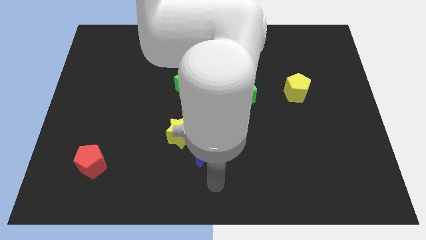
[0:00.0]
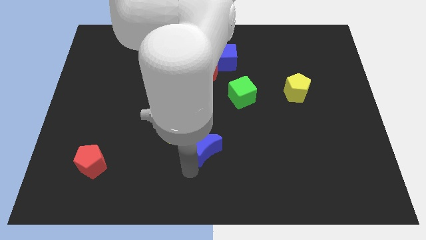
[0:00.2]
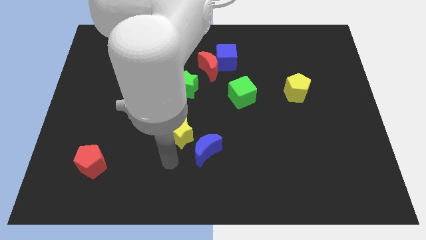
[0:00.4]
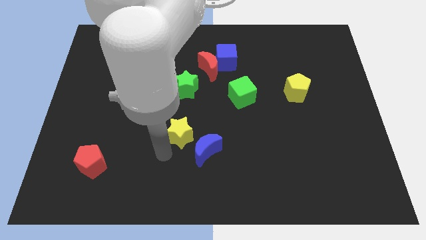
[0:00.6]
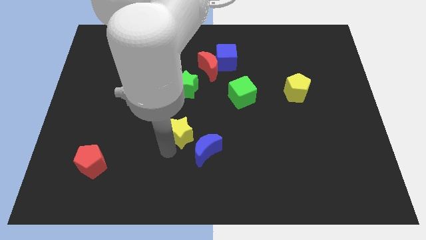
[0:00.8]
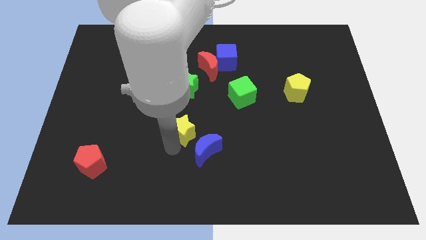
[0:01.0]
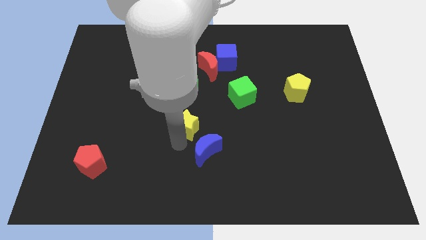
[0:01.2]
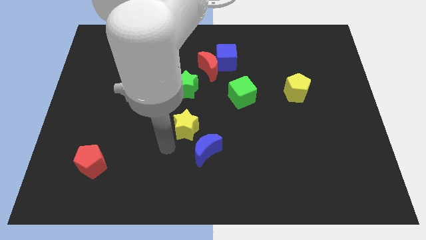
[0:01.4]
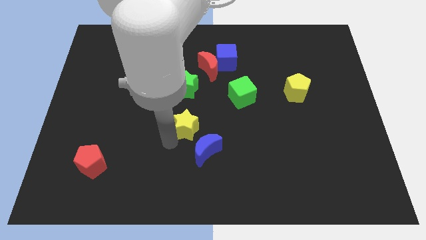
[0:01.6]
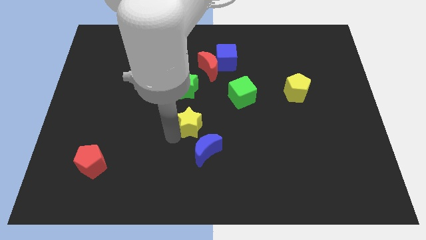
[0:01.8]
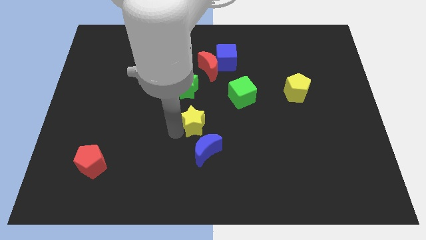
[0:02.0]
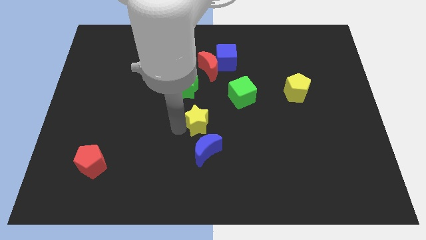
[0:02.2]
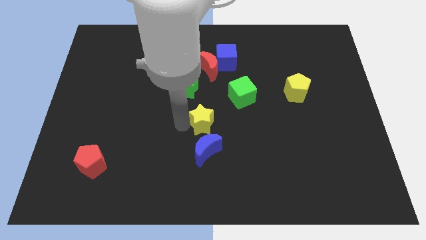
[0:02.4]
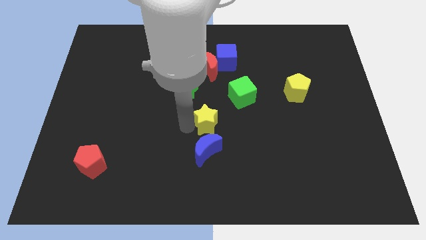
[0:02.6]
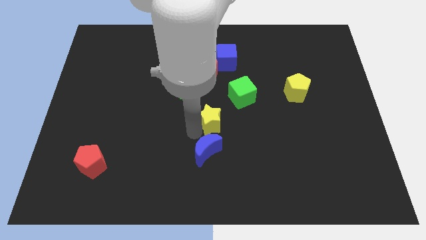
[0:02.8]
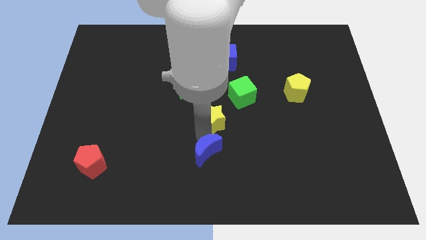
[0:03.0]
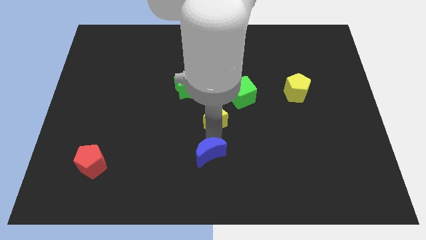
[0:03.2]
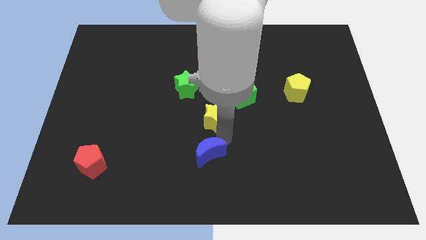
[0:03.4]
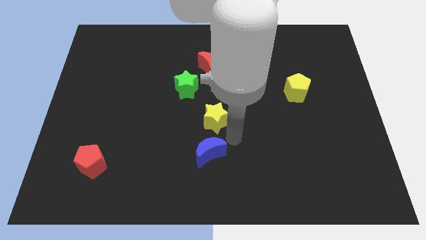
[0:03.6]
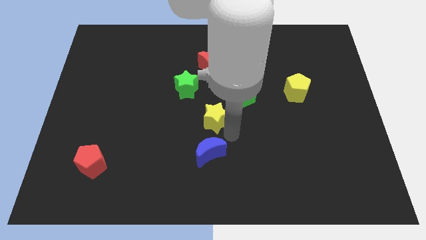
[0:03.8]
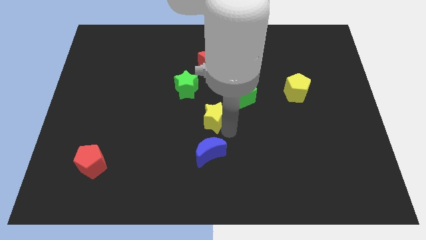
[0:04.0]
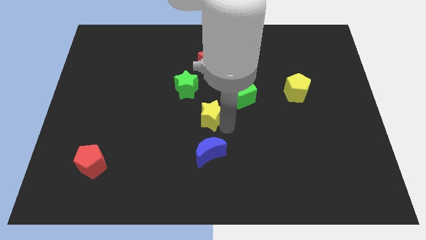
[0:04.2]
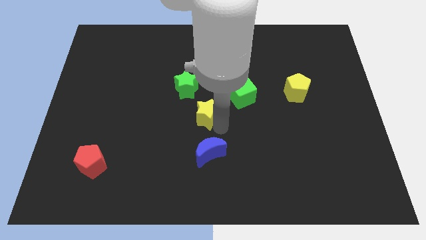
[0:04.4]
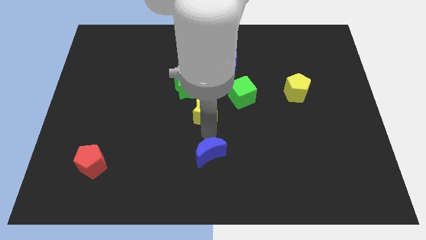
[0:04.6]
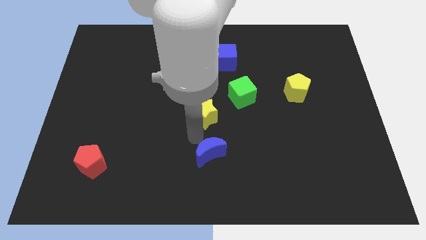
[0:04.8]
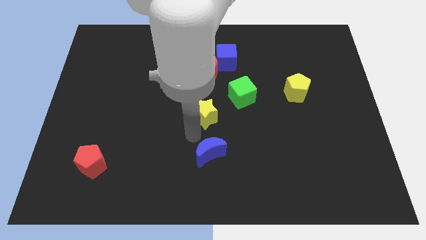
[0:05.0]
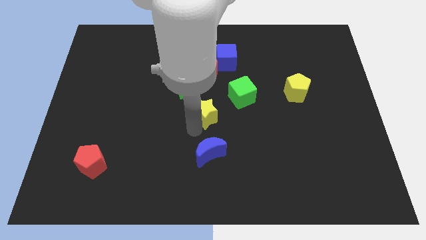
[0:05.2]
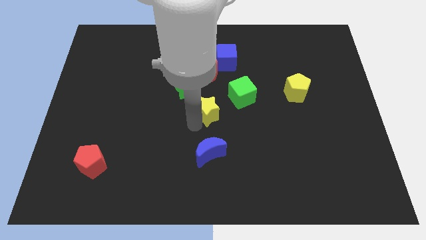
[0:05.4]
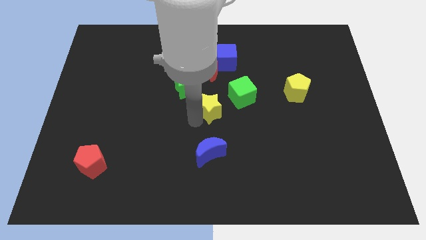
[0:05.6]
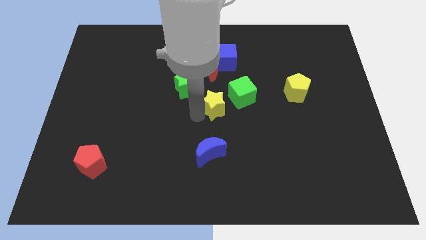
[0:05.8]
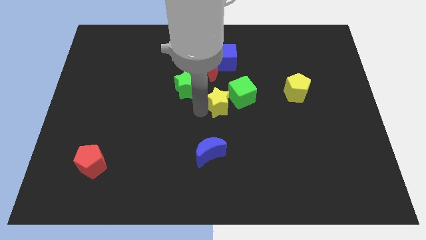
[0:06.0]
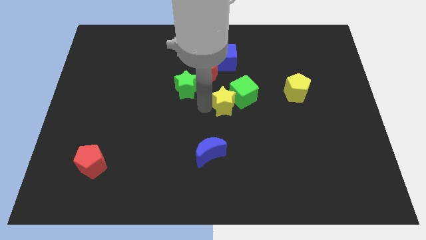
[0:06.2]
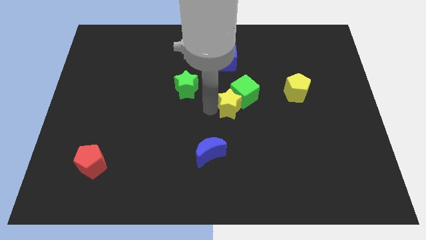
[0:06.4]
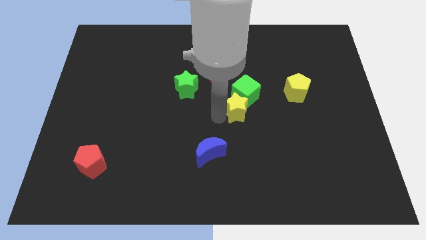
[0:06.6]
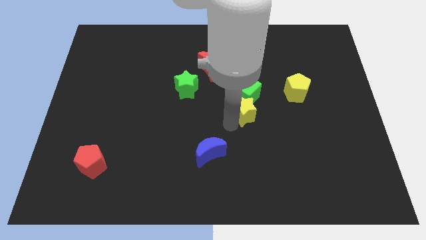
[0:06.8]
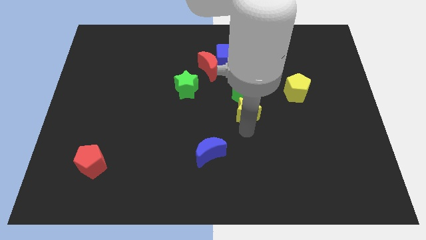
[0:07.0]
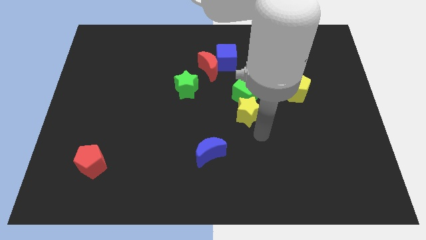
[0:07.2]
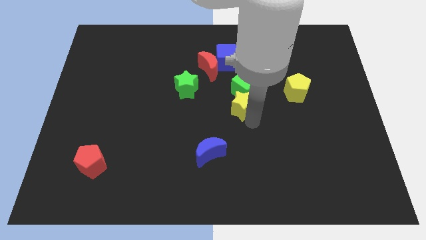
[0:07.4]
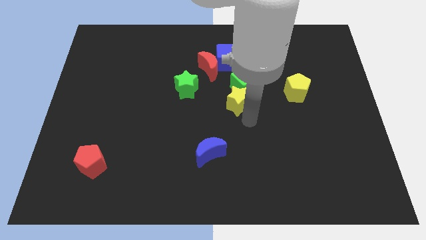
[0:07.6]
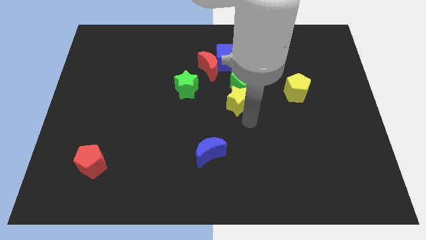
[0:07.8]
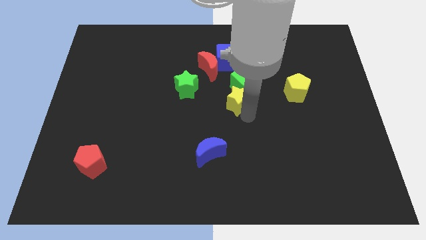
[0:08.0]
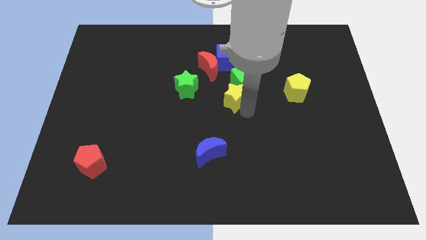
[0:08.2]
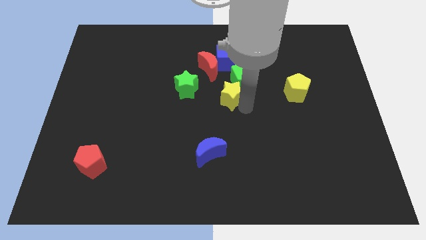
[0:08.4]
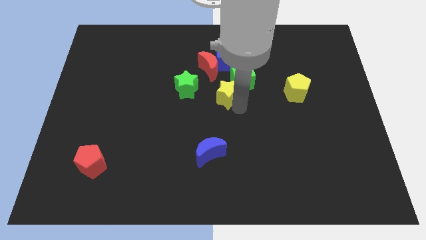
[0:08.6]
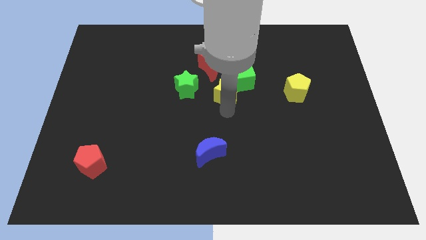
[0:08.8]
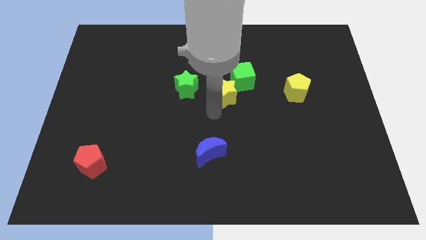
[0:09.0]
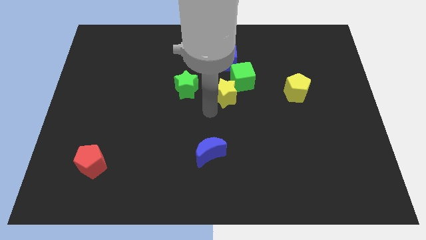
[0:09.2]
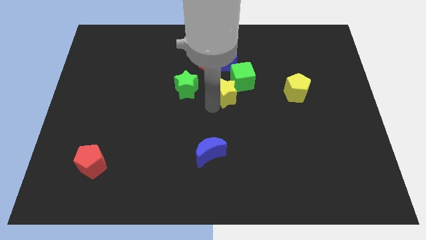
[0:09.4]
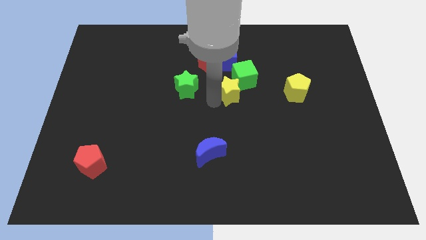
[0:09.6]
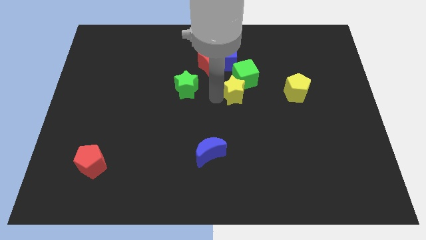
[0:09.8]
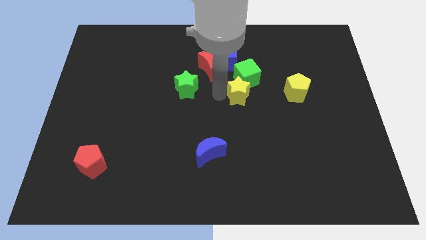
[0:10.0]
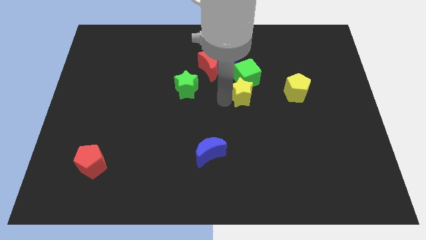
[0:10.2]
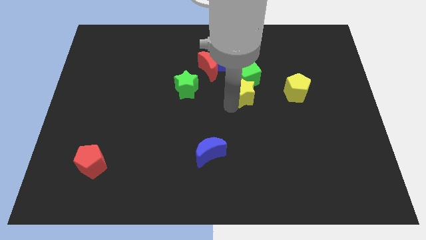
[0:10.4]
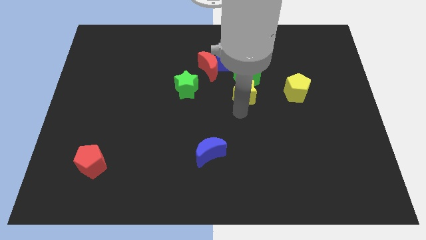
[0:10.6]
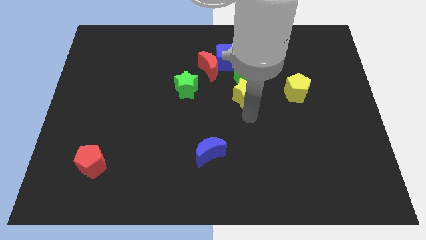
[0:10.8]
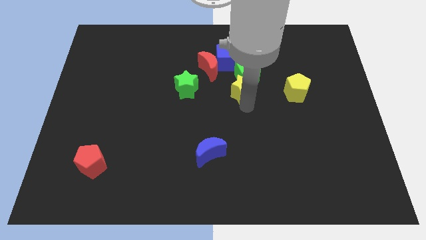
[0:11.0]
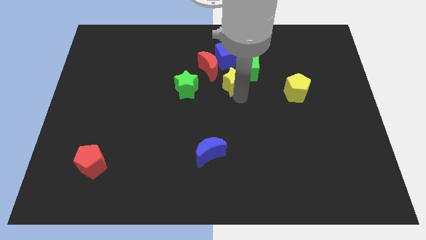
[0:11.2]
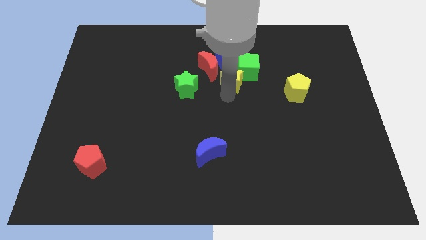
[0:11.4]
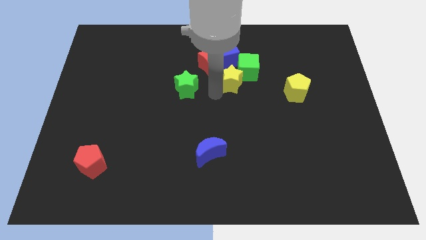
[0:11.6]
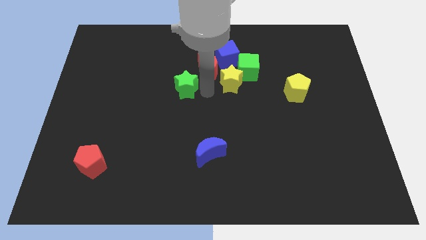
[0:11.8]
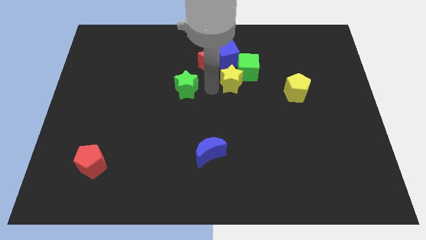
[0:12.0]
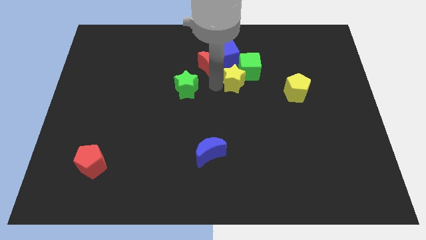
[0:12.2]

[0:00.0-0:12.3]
slide the yellow star upwards and to the right

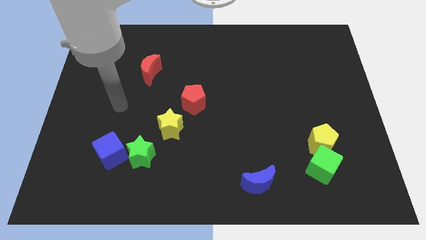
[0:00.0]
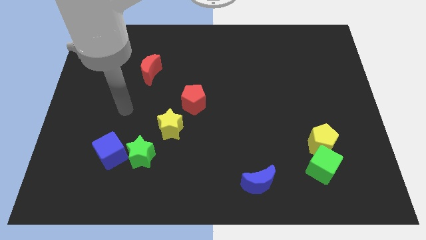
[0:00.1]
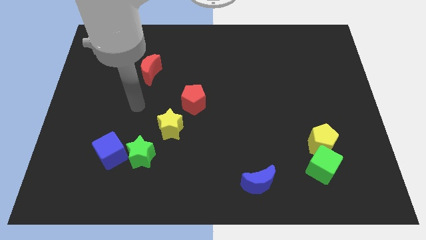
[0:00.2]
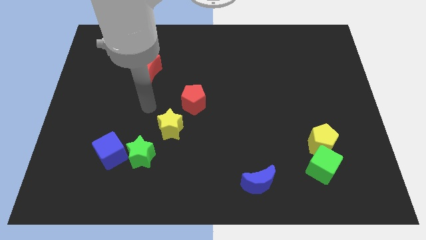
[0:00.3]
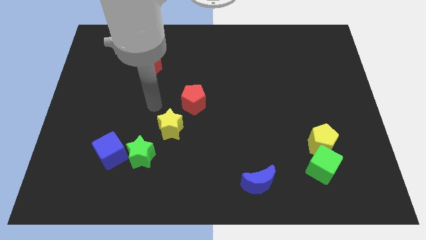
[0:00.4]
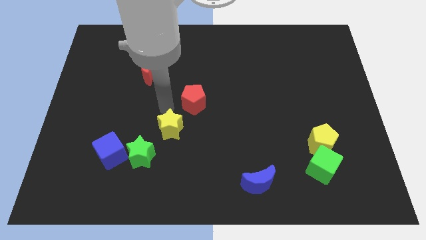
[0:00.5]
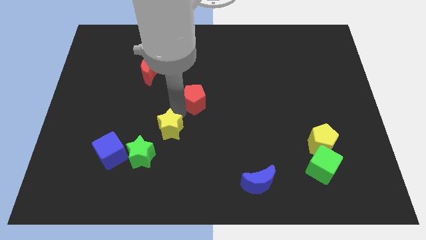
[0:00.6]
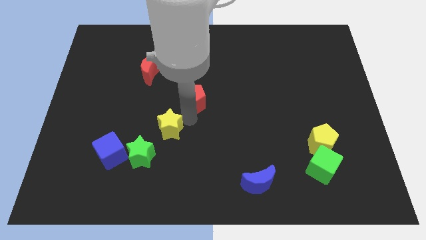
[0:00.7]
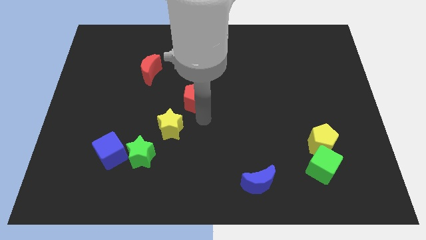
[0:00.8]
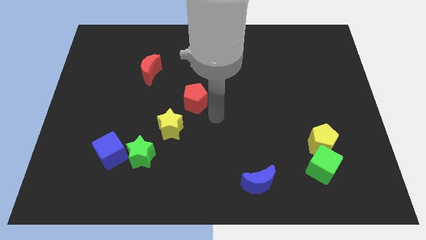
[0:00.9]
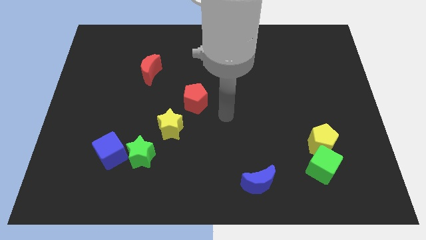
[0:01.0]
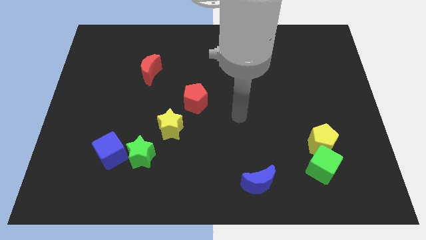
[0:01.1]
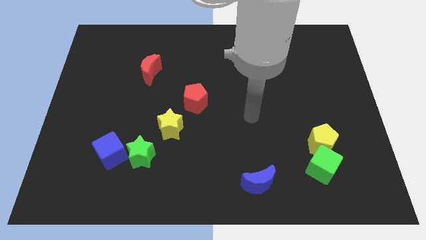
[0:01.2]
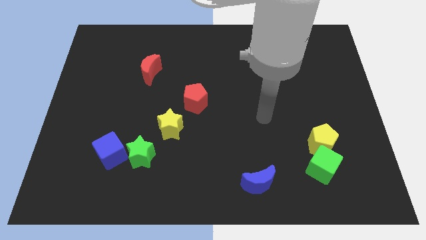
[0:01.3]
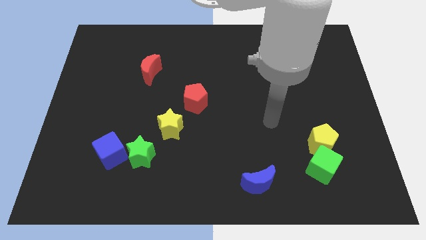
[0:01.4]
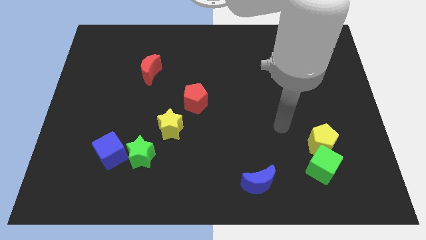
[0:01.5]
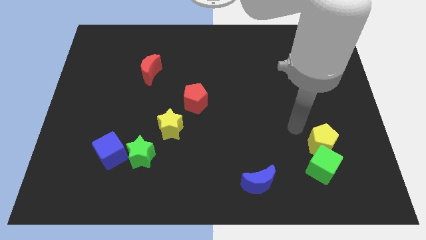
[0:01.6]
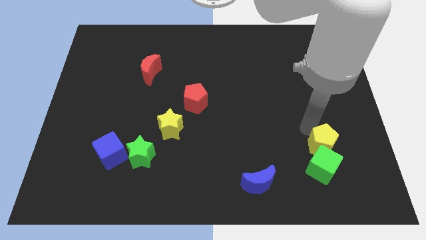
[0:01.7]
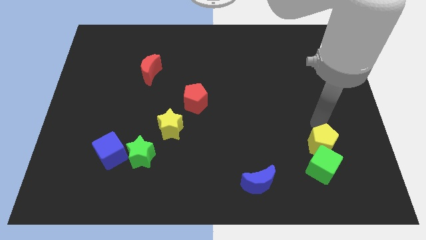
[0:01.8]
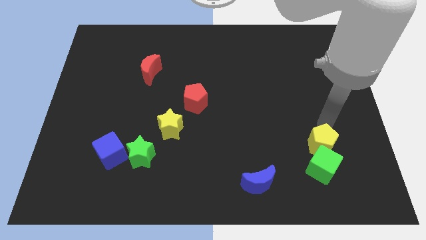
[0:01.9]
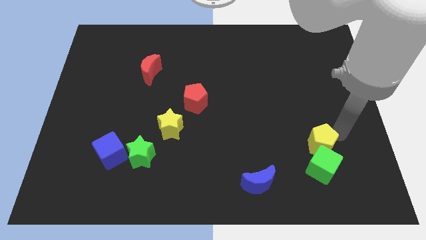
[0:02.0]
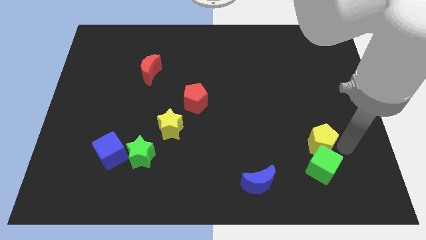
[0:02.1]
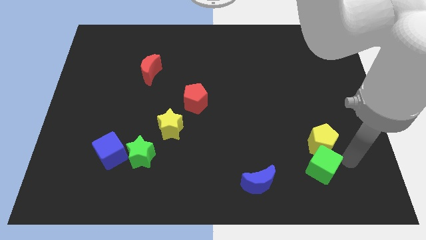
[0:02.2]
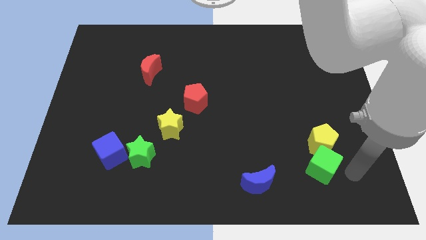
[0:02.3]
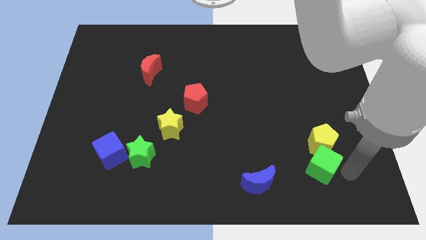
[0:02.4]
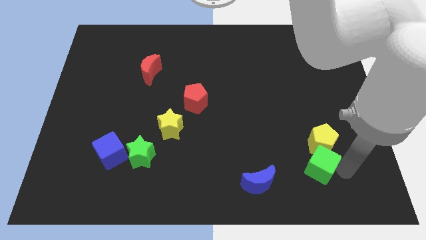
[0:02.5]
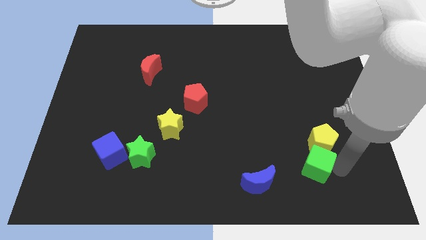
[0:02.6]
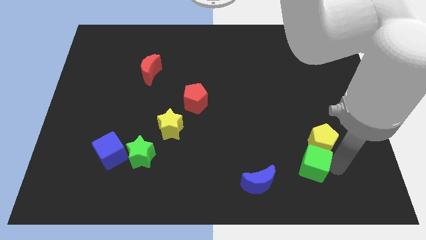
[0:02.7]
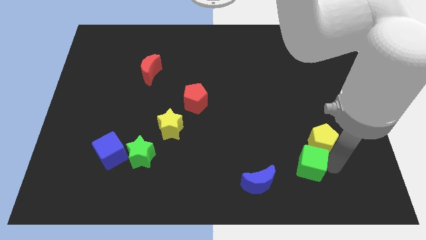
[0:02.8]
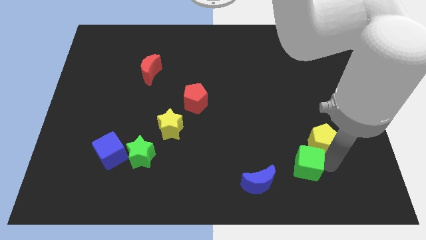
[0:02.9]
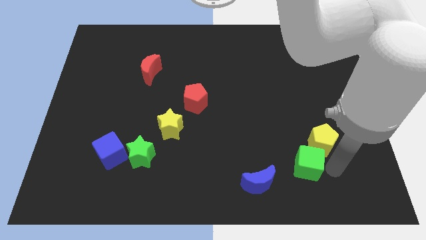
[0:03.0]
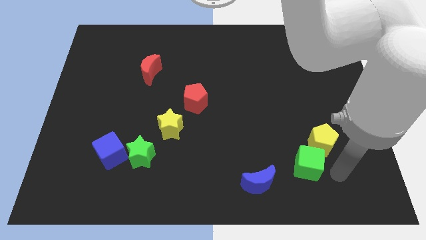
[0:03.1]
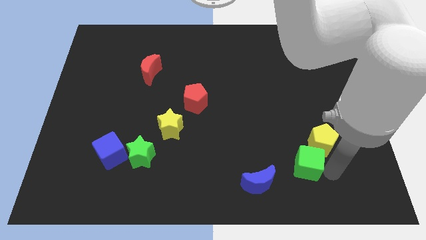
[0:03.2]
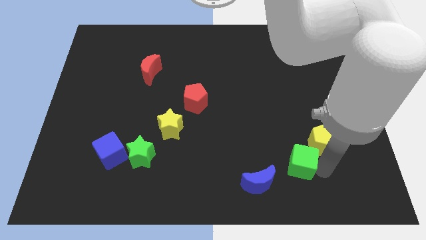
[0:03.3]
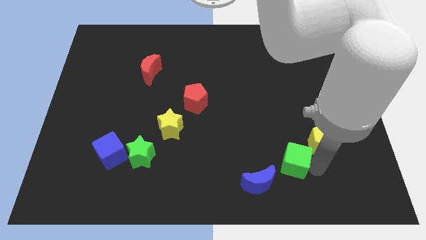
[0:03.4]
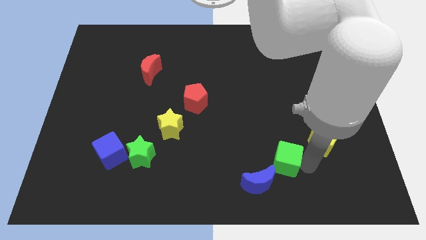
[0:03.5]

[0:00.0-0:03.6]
move the green cube to the left a little bit
